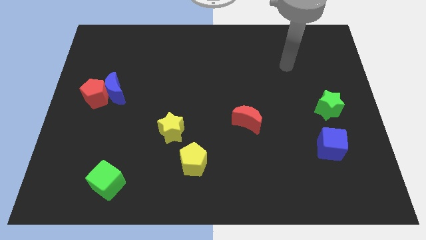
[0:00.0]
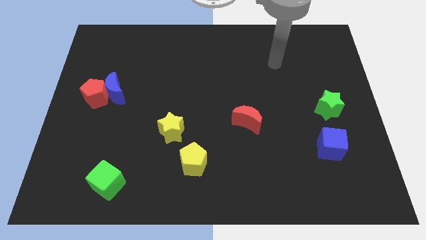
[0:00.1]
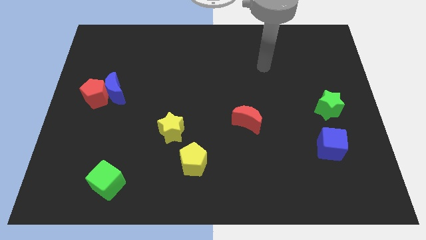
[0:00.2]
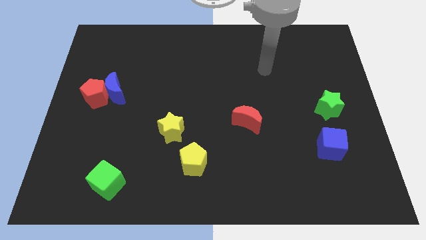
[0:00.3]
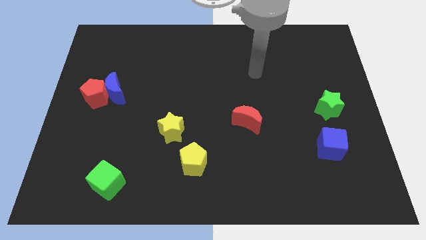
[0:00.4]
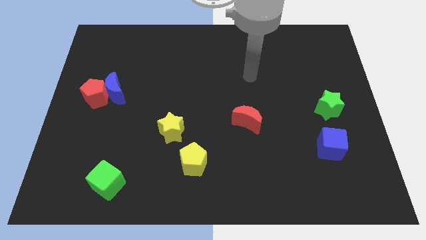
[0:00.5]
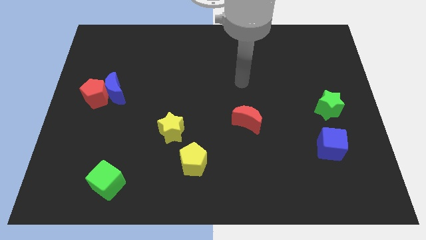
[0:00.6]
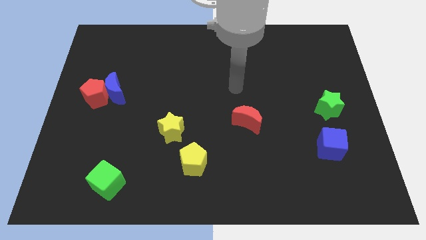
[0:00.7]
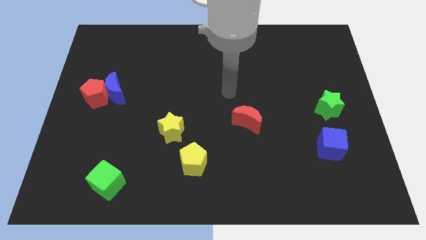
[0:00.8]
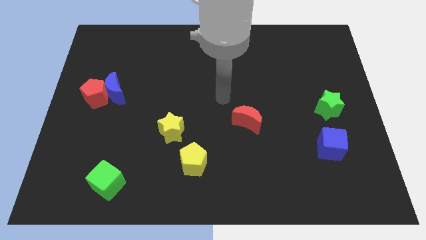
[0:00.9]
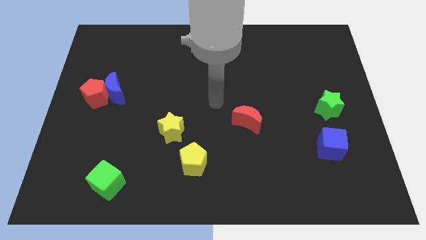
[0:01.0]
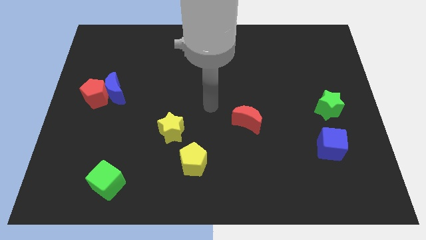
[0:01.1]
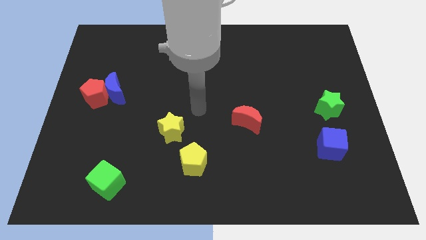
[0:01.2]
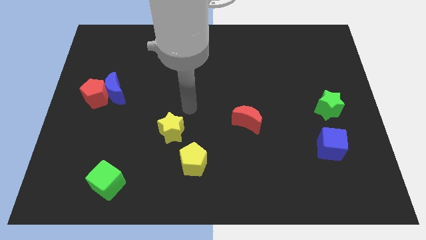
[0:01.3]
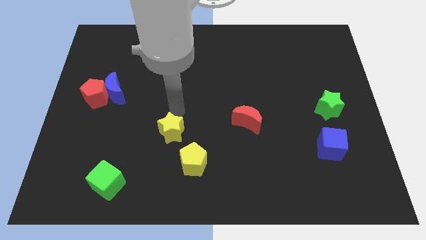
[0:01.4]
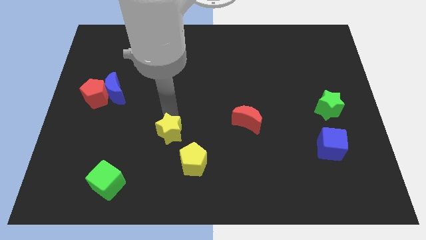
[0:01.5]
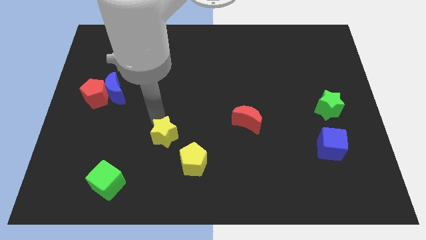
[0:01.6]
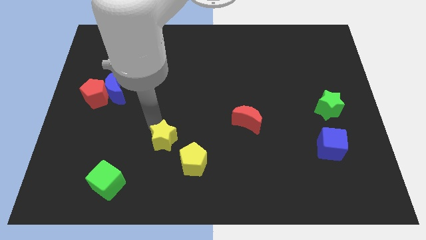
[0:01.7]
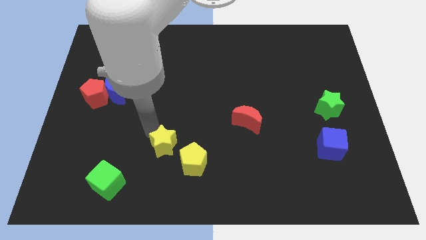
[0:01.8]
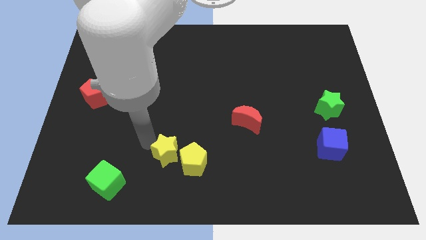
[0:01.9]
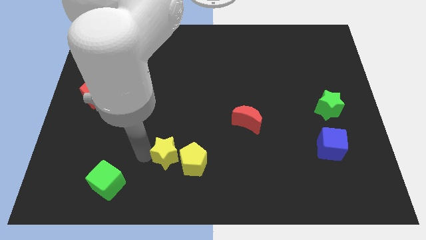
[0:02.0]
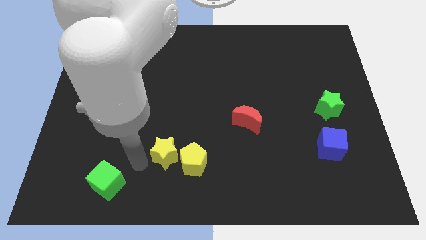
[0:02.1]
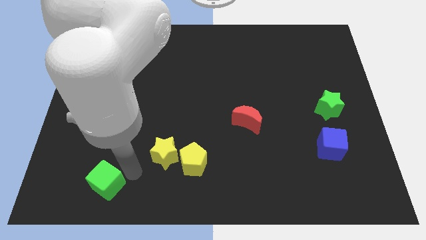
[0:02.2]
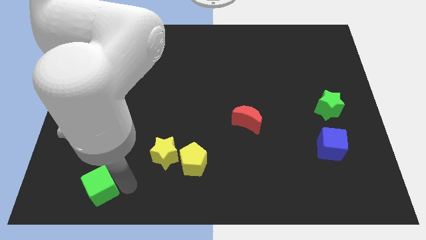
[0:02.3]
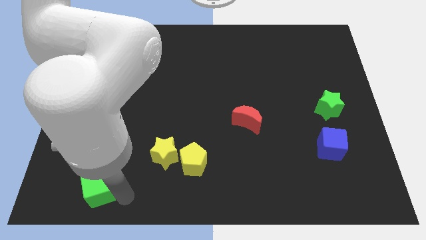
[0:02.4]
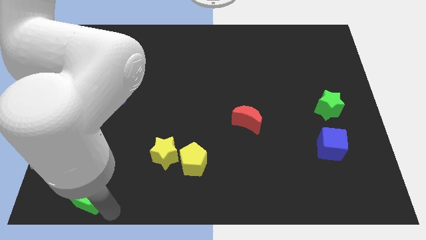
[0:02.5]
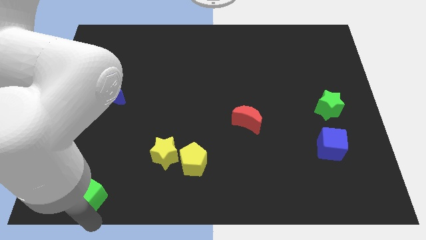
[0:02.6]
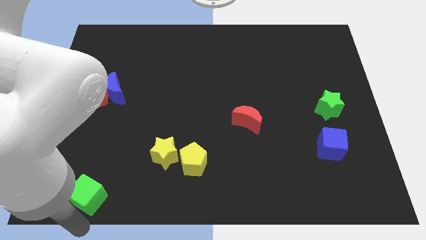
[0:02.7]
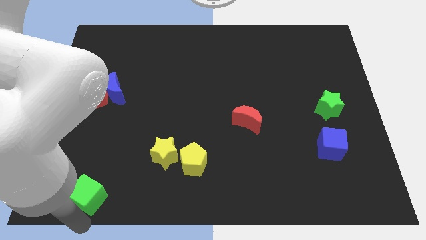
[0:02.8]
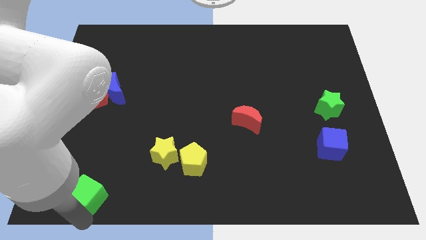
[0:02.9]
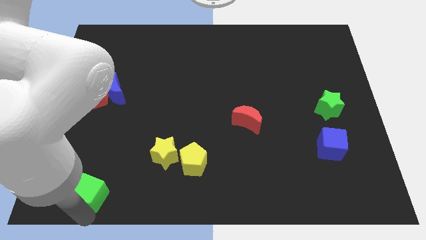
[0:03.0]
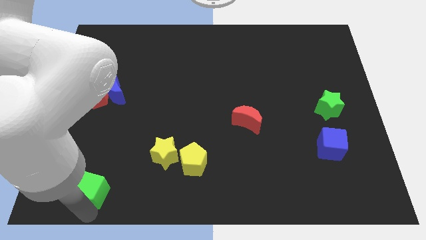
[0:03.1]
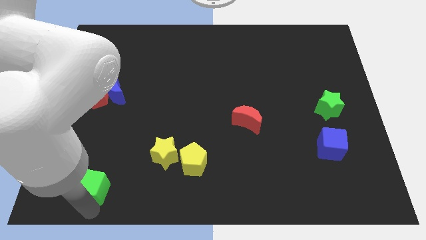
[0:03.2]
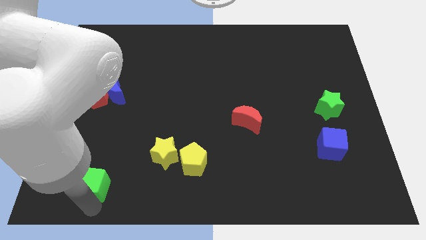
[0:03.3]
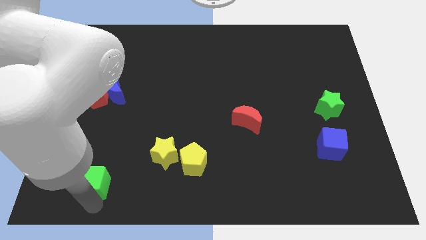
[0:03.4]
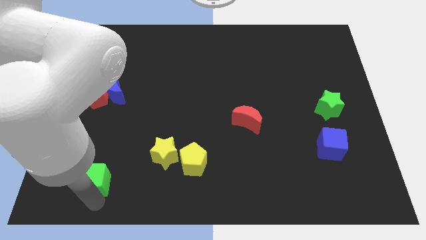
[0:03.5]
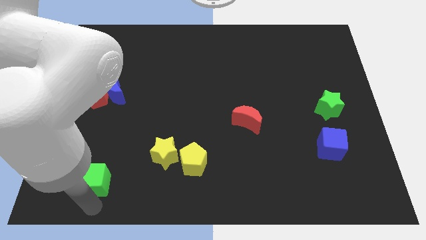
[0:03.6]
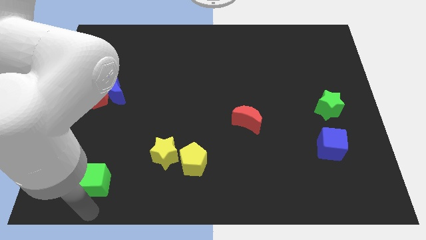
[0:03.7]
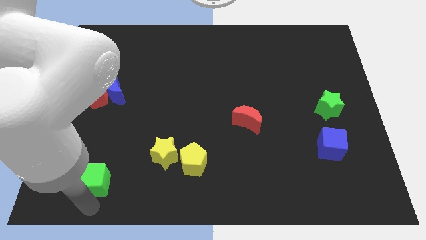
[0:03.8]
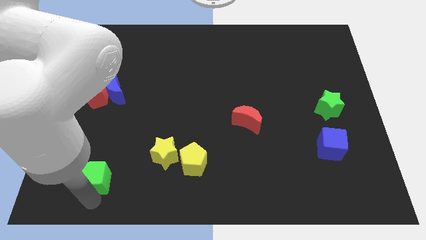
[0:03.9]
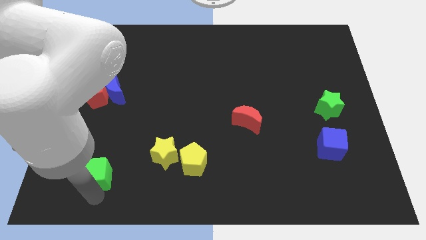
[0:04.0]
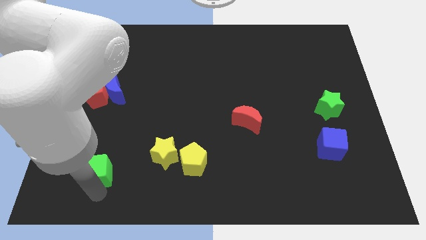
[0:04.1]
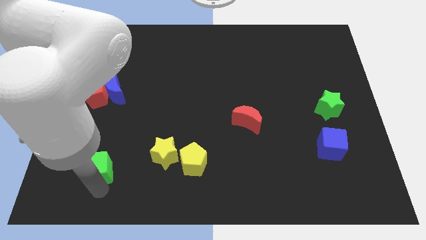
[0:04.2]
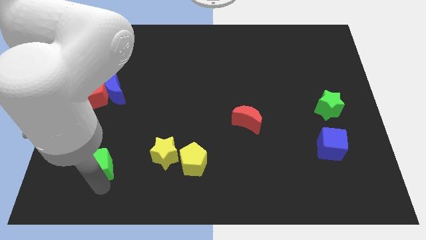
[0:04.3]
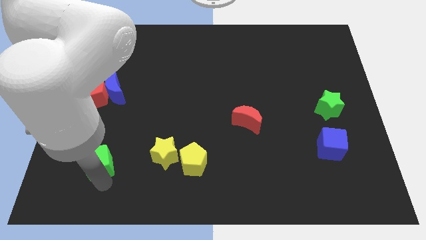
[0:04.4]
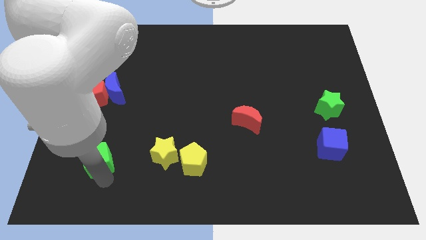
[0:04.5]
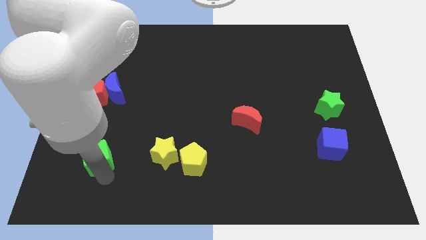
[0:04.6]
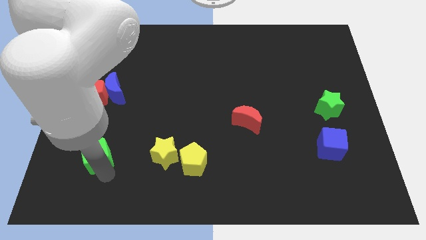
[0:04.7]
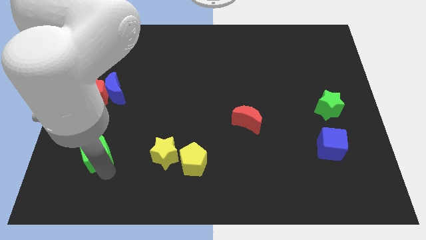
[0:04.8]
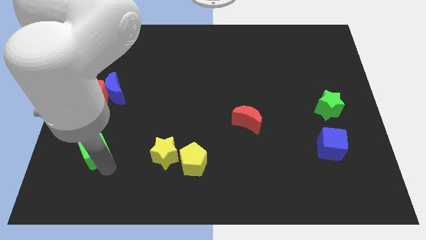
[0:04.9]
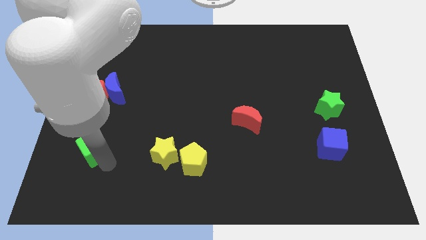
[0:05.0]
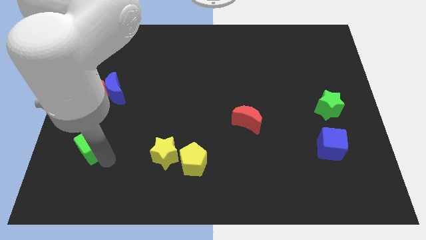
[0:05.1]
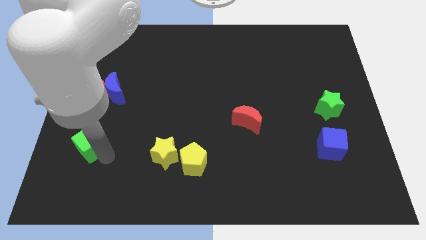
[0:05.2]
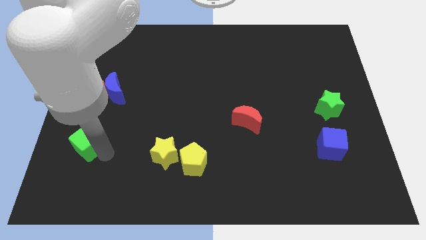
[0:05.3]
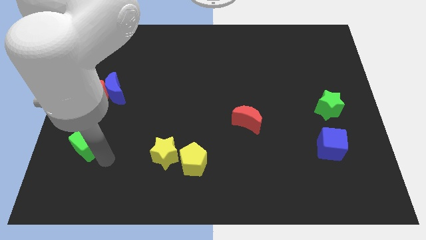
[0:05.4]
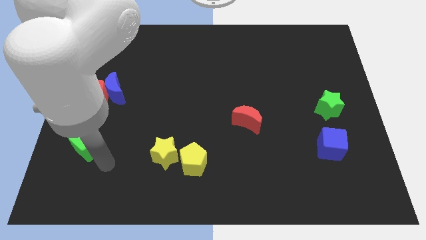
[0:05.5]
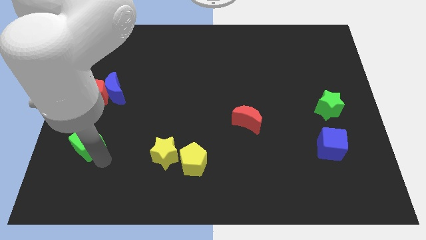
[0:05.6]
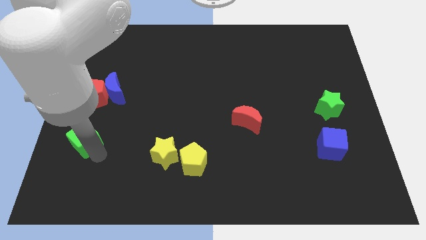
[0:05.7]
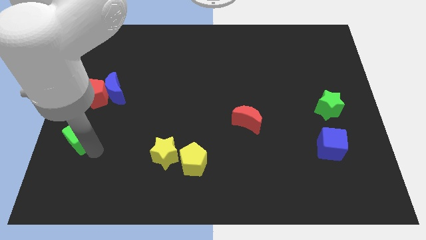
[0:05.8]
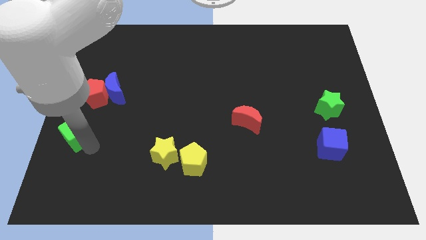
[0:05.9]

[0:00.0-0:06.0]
push the green cube to the left side

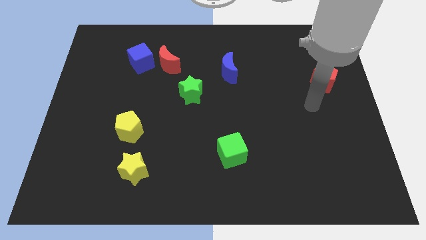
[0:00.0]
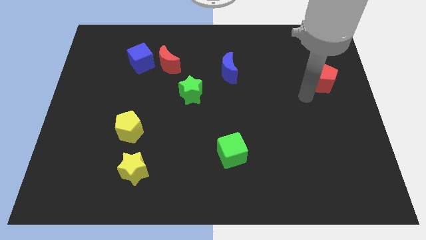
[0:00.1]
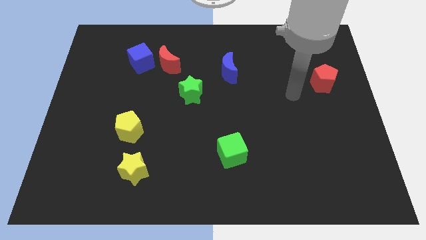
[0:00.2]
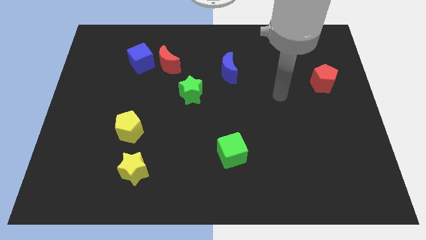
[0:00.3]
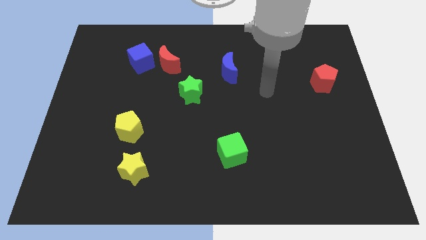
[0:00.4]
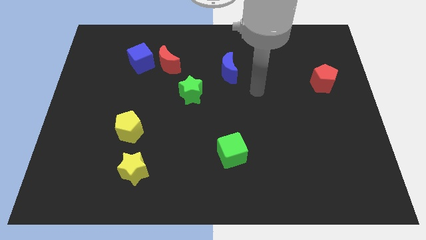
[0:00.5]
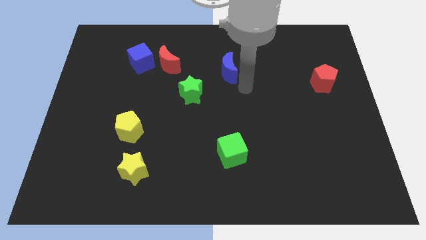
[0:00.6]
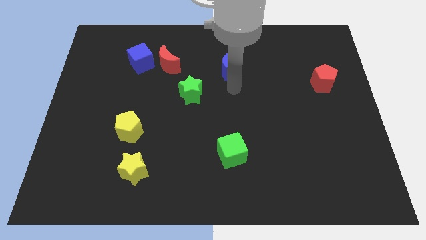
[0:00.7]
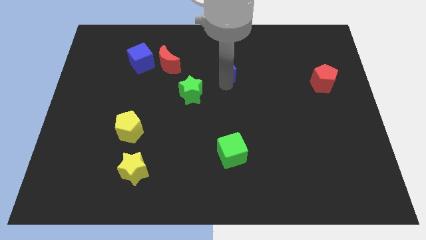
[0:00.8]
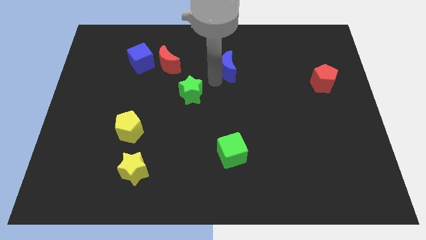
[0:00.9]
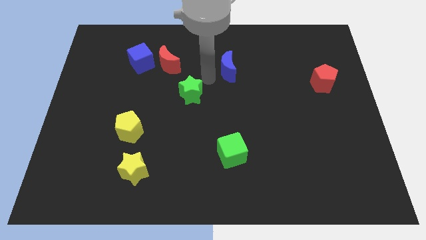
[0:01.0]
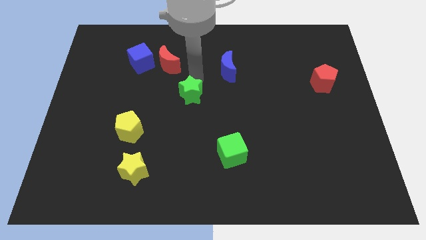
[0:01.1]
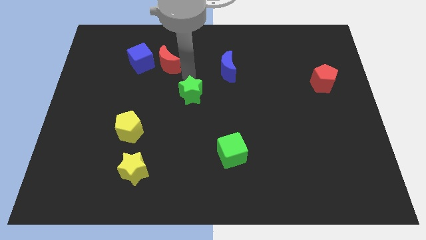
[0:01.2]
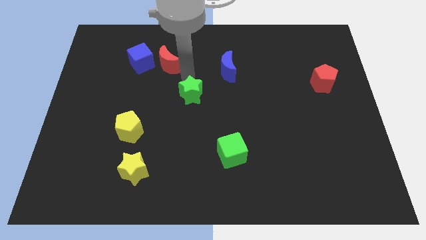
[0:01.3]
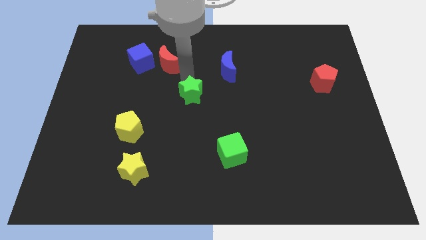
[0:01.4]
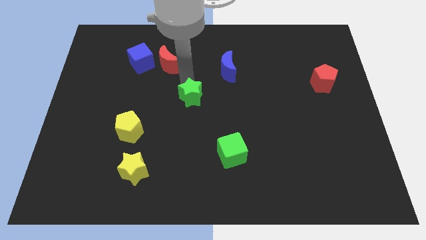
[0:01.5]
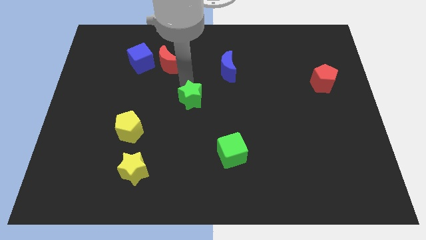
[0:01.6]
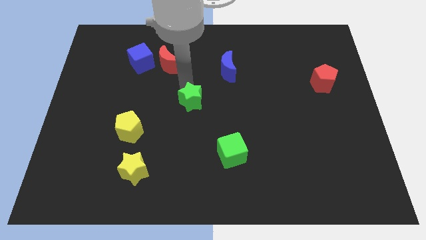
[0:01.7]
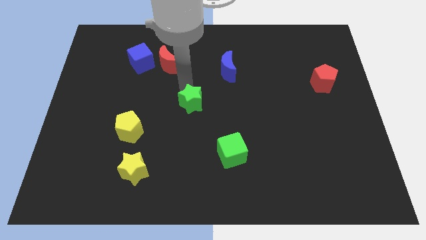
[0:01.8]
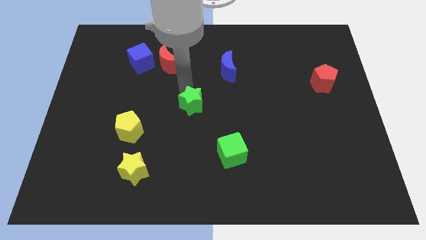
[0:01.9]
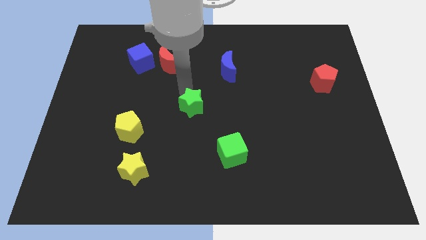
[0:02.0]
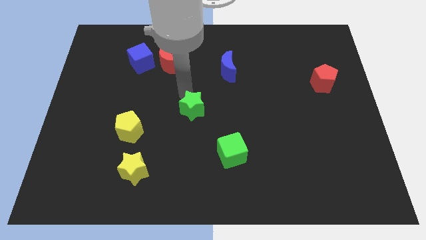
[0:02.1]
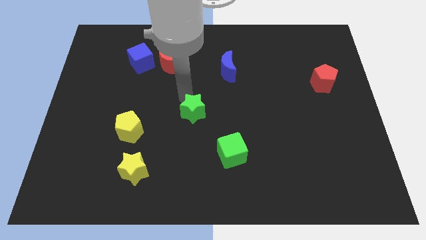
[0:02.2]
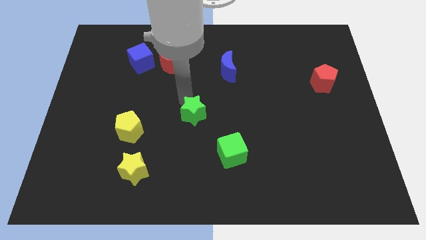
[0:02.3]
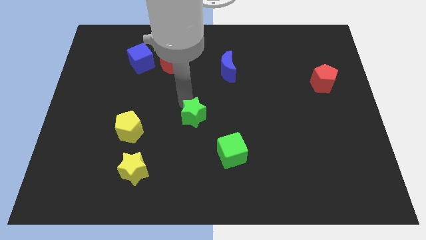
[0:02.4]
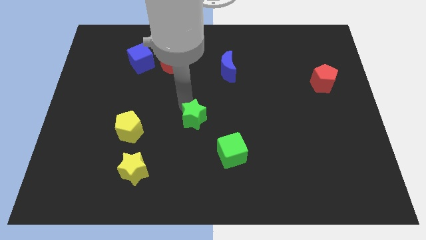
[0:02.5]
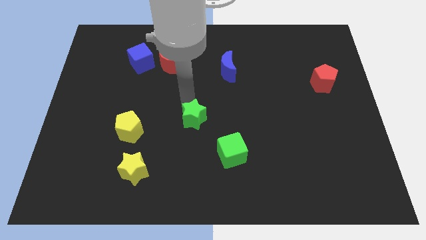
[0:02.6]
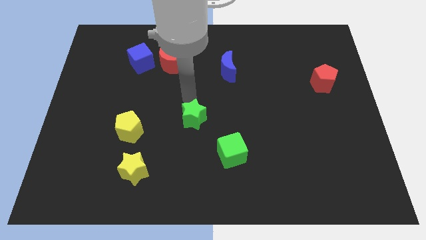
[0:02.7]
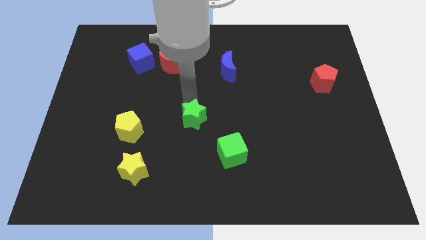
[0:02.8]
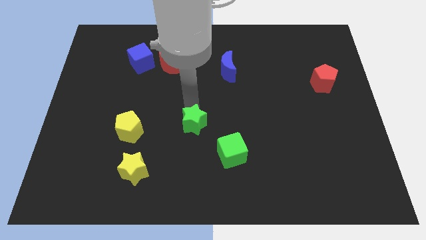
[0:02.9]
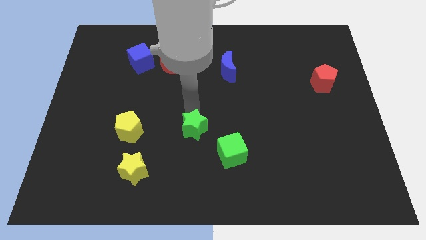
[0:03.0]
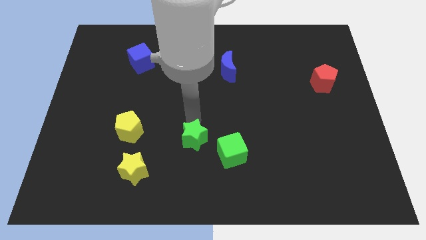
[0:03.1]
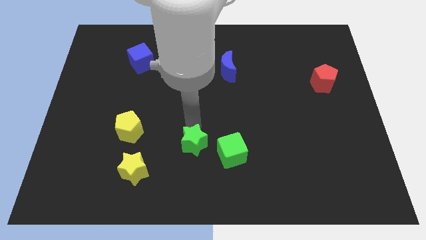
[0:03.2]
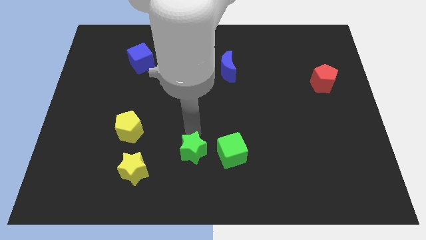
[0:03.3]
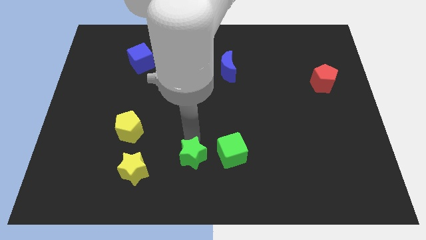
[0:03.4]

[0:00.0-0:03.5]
push the green star to the bottom
